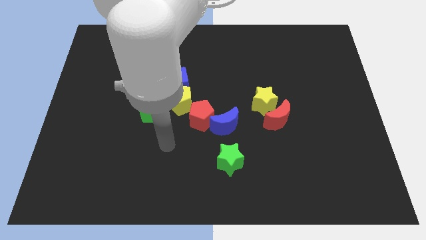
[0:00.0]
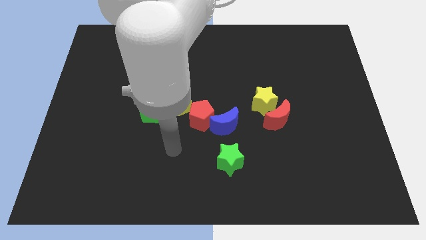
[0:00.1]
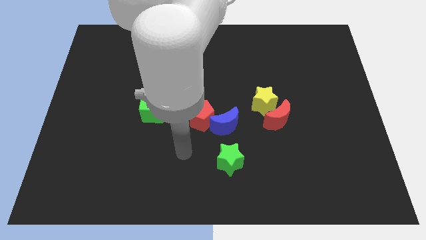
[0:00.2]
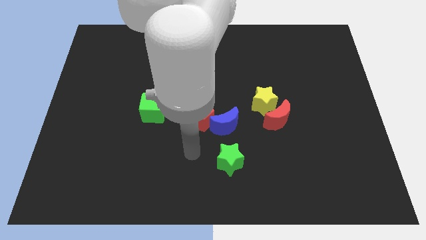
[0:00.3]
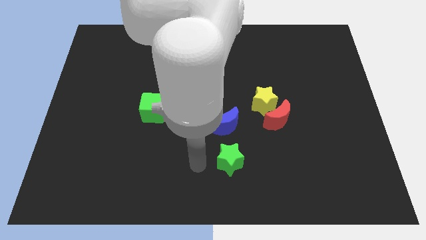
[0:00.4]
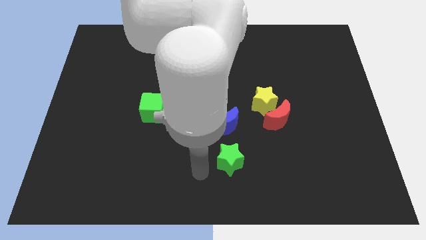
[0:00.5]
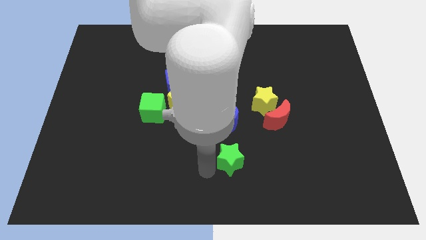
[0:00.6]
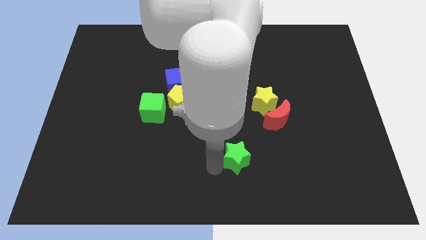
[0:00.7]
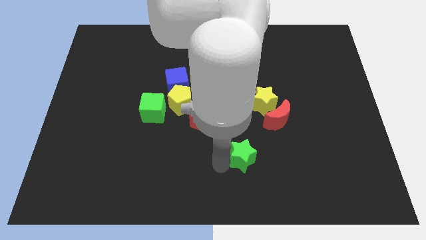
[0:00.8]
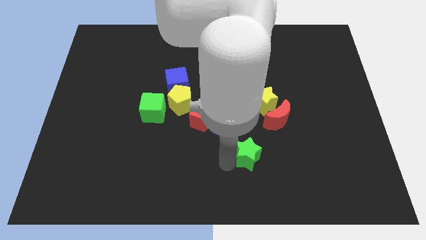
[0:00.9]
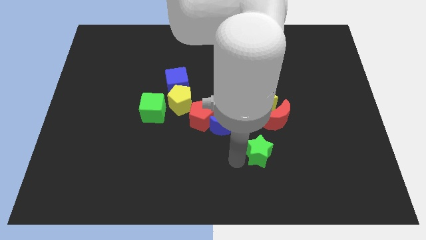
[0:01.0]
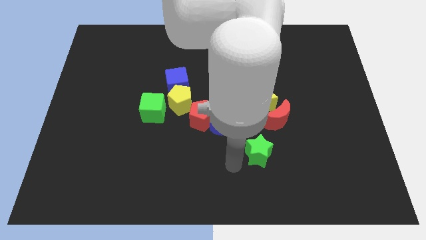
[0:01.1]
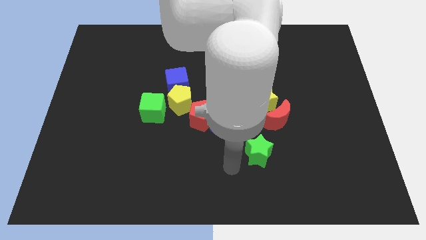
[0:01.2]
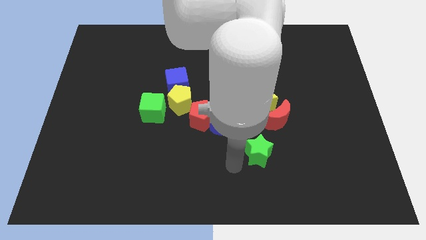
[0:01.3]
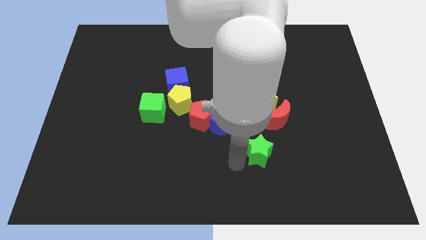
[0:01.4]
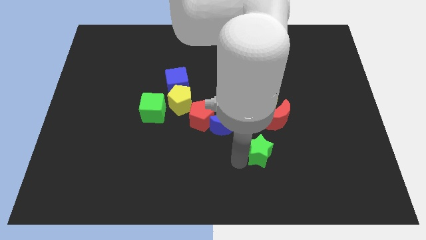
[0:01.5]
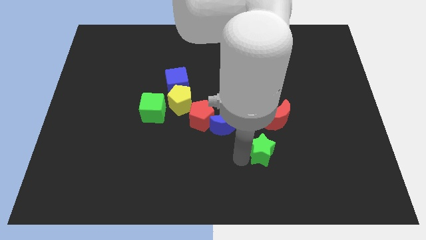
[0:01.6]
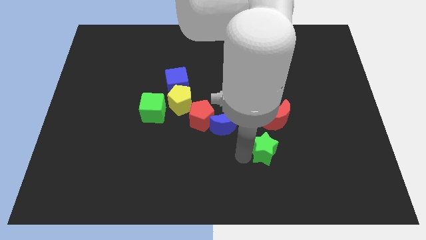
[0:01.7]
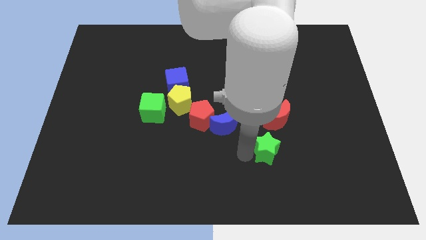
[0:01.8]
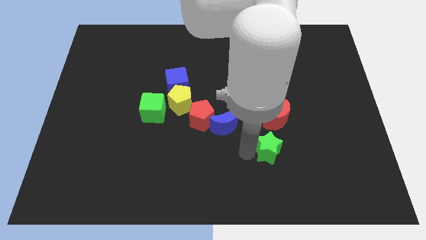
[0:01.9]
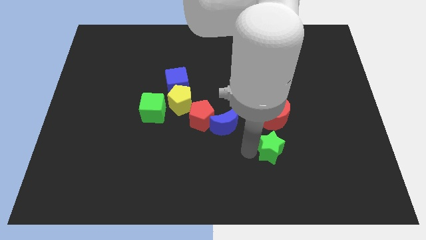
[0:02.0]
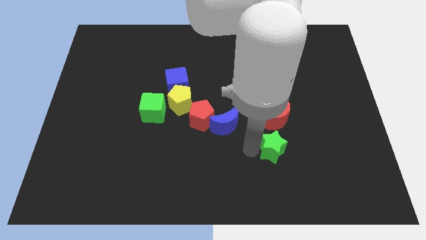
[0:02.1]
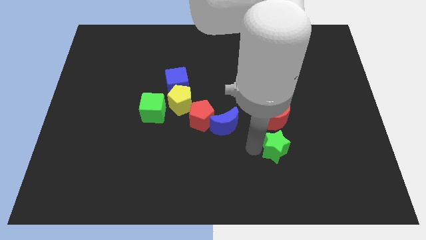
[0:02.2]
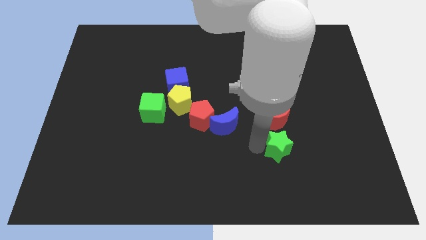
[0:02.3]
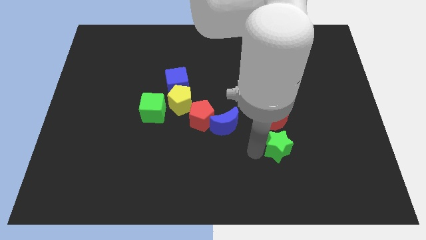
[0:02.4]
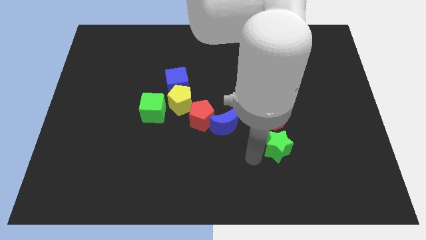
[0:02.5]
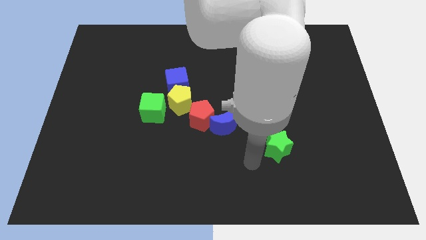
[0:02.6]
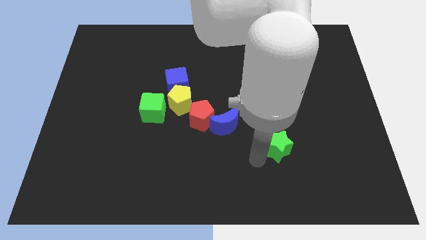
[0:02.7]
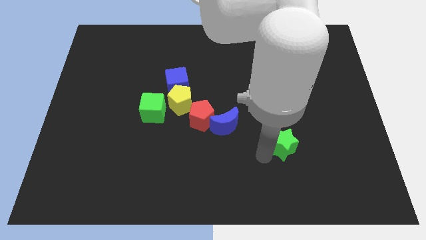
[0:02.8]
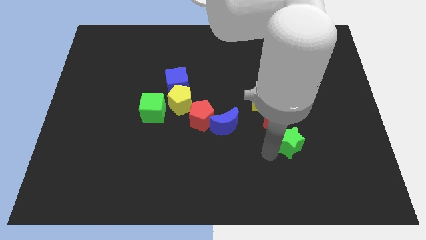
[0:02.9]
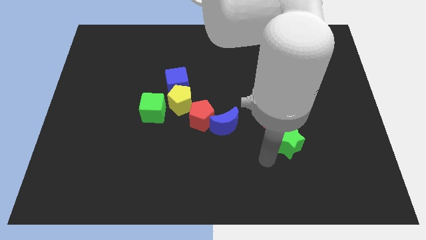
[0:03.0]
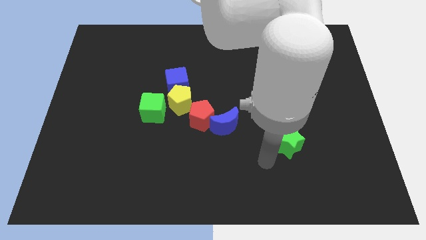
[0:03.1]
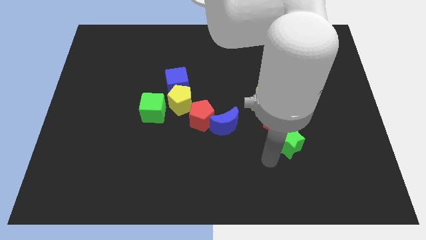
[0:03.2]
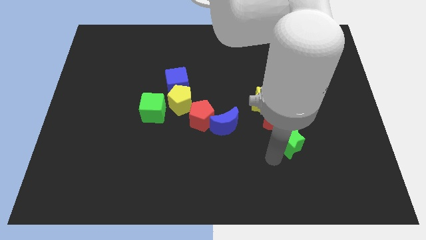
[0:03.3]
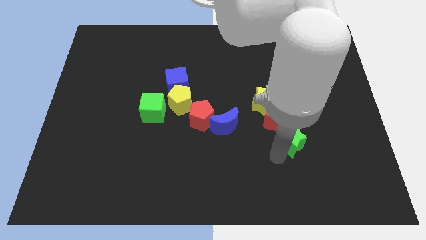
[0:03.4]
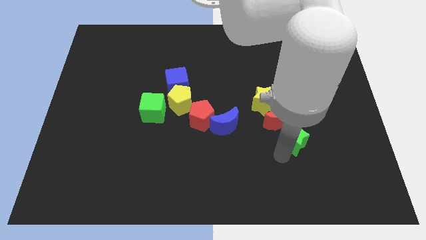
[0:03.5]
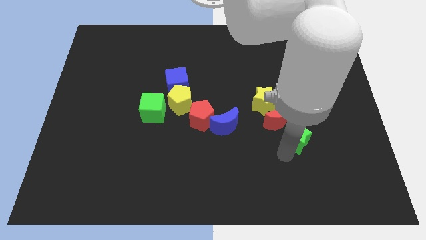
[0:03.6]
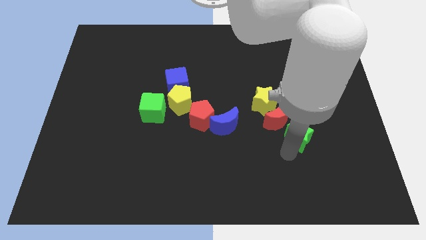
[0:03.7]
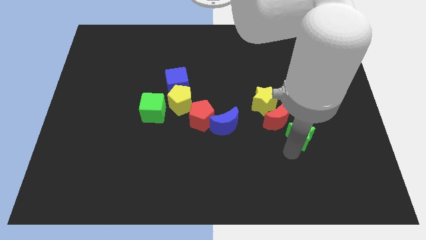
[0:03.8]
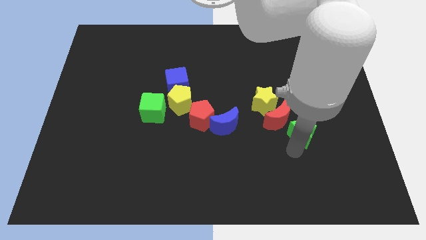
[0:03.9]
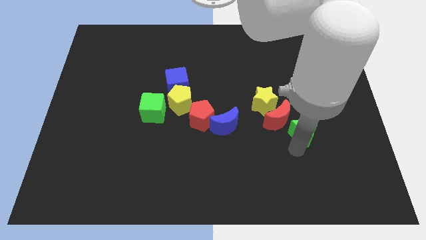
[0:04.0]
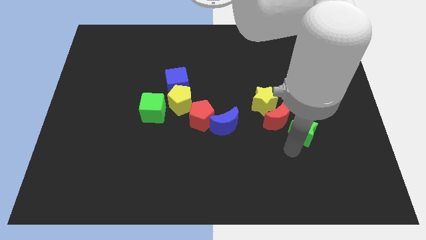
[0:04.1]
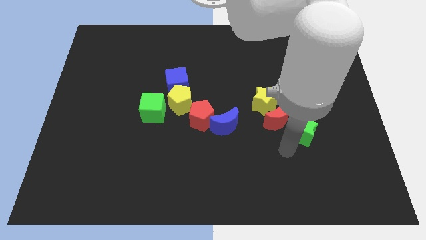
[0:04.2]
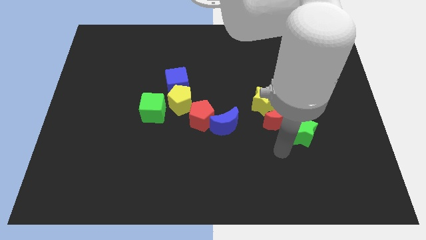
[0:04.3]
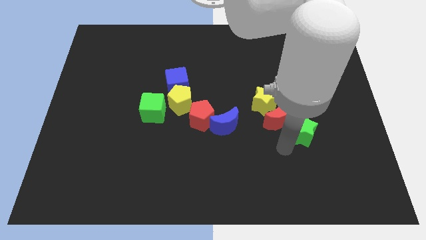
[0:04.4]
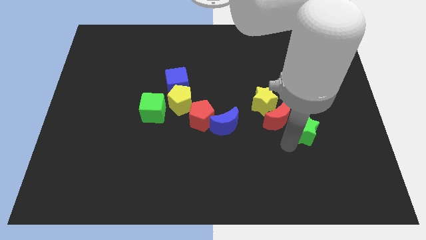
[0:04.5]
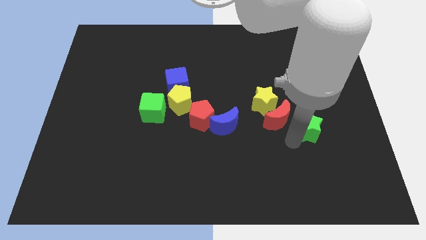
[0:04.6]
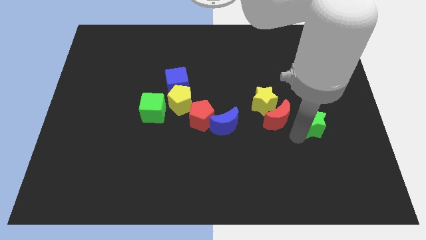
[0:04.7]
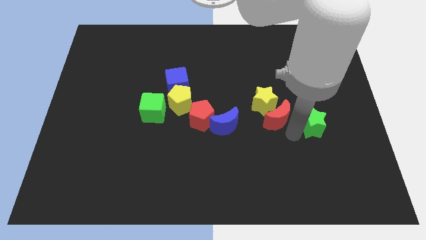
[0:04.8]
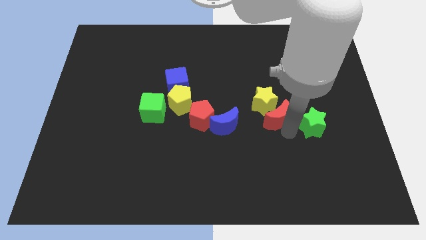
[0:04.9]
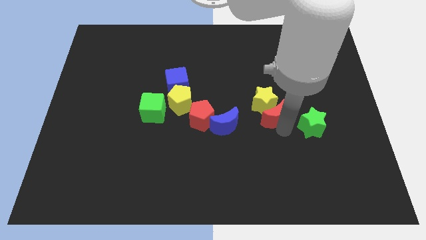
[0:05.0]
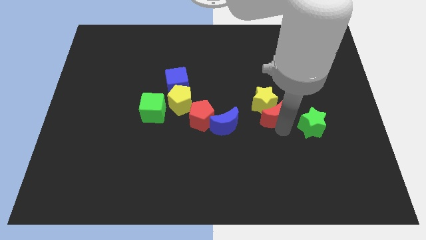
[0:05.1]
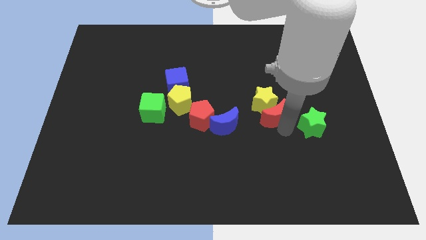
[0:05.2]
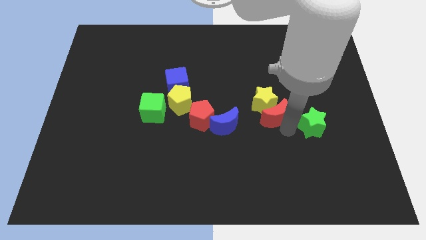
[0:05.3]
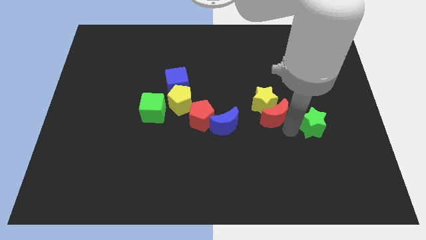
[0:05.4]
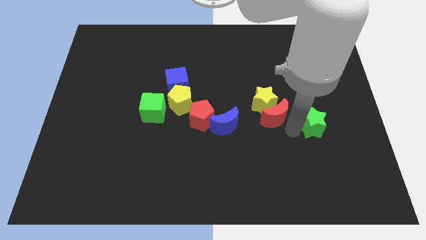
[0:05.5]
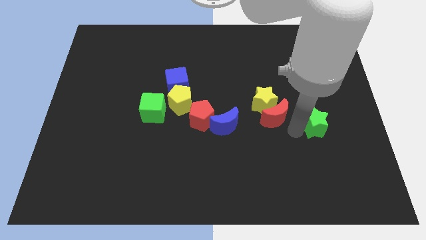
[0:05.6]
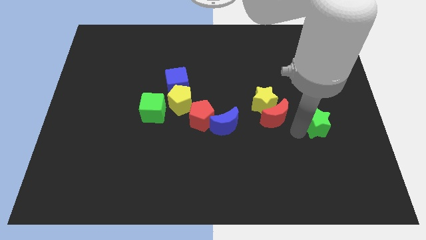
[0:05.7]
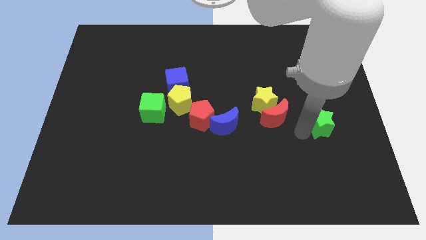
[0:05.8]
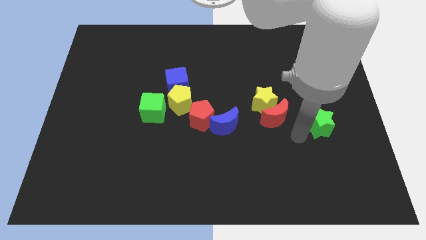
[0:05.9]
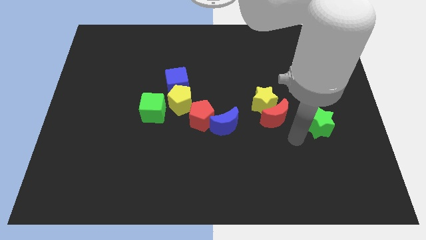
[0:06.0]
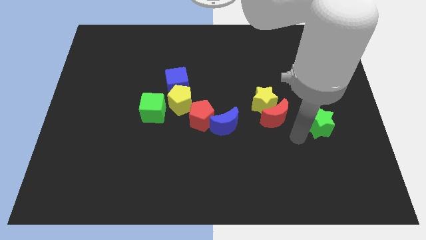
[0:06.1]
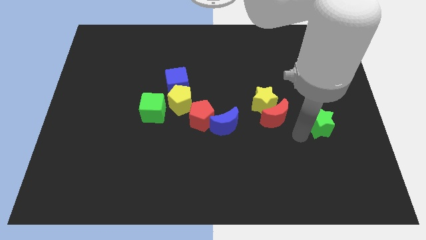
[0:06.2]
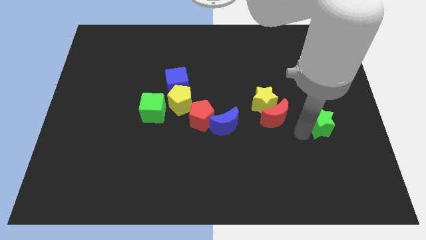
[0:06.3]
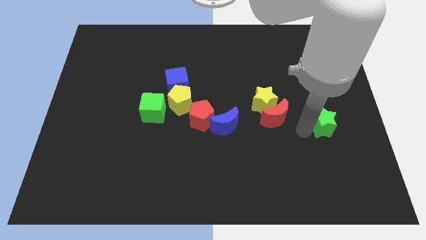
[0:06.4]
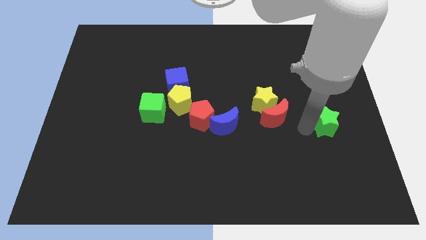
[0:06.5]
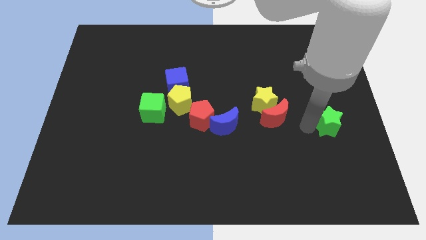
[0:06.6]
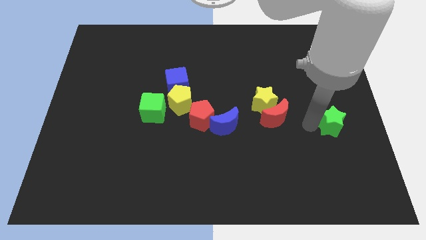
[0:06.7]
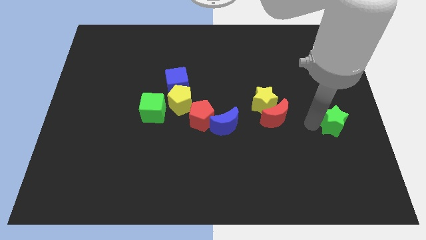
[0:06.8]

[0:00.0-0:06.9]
move the green star to the right side of the board

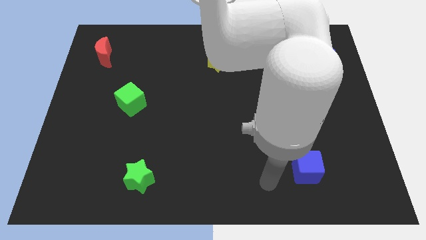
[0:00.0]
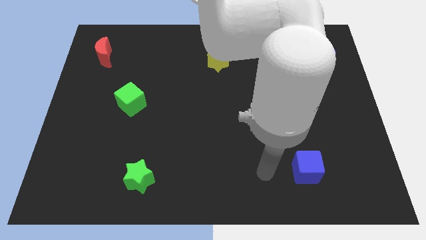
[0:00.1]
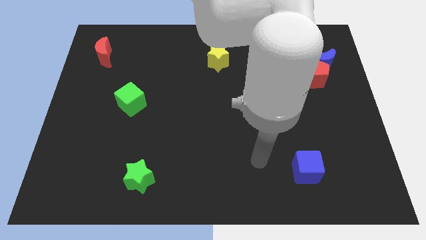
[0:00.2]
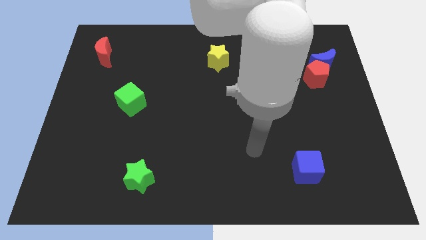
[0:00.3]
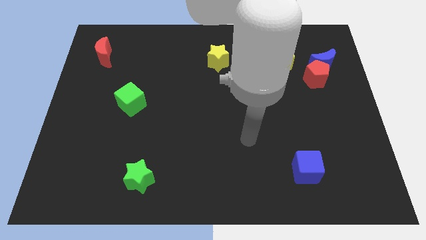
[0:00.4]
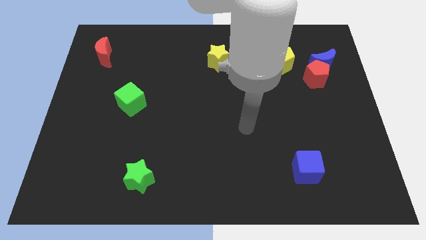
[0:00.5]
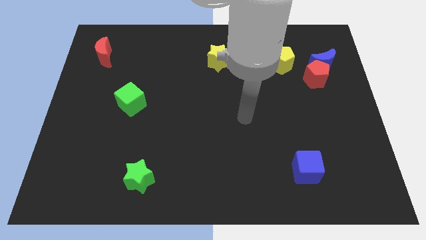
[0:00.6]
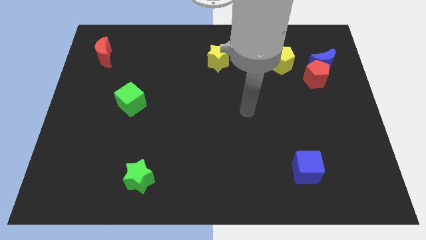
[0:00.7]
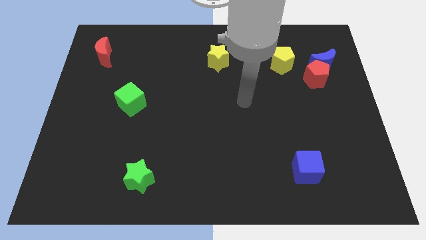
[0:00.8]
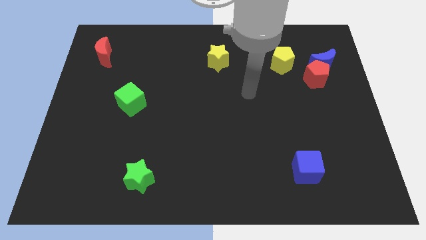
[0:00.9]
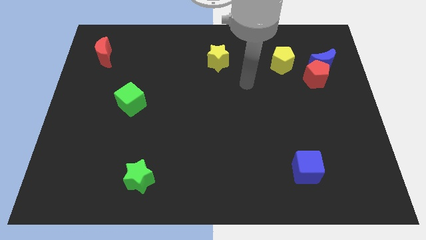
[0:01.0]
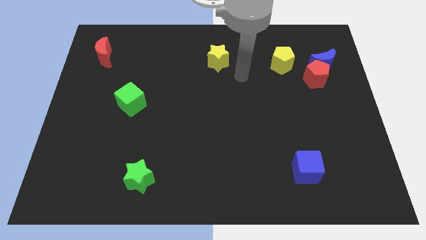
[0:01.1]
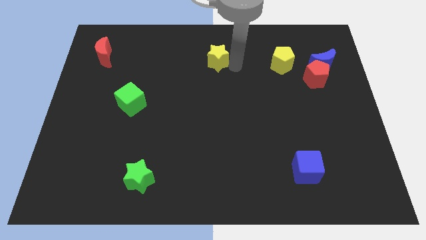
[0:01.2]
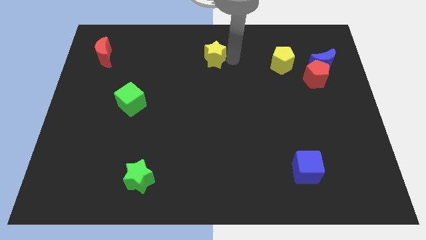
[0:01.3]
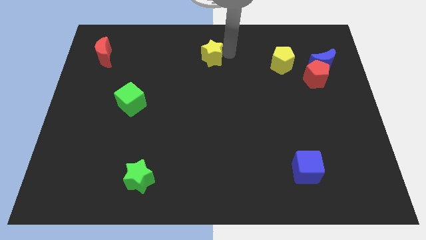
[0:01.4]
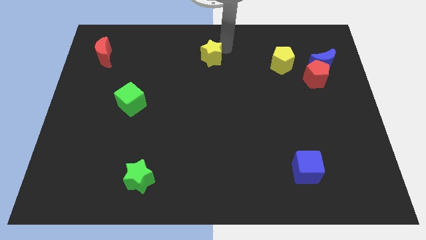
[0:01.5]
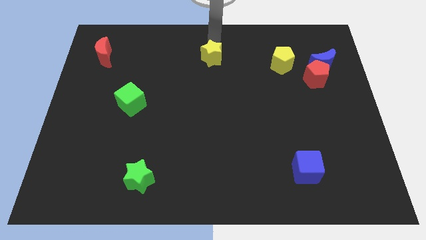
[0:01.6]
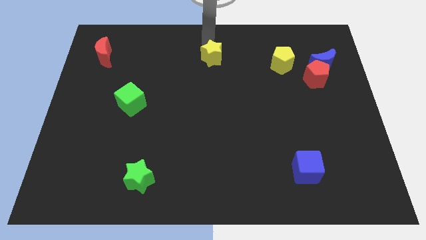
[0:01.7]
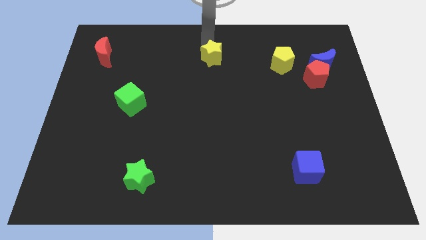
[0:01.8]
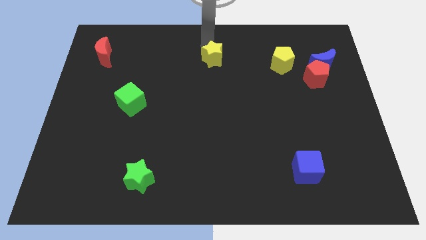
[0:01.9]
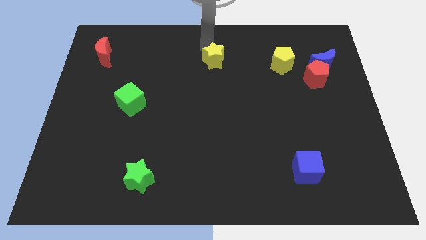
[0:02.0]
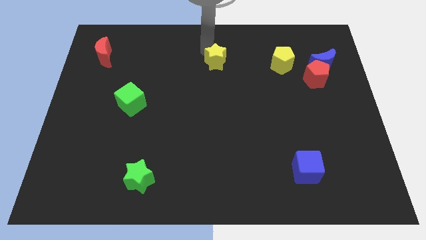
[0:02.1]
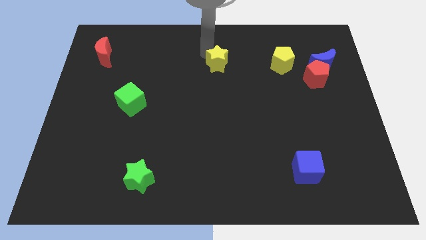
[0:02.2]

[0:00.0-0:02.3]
slide the yellow star to the center
